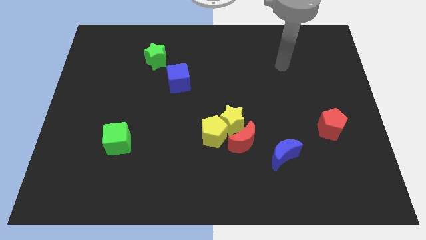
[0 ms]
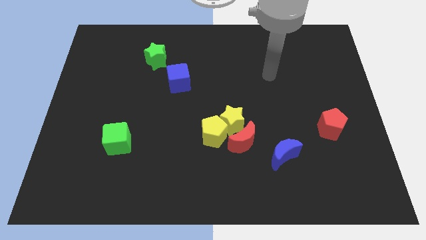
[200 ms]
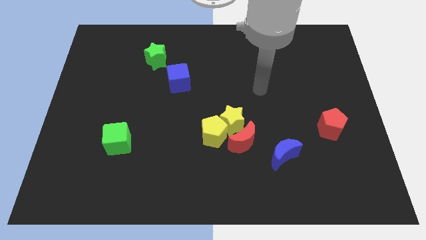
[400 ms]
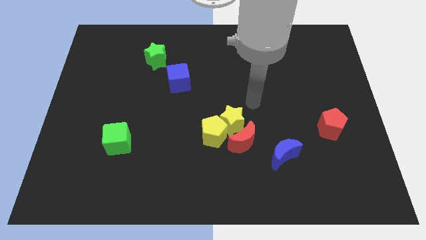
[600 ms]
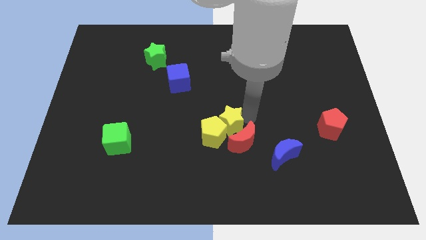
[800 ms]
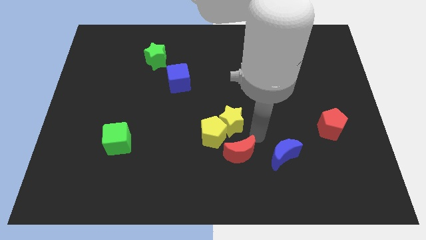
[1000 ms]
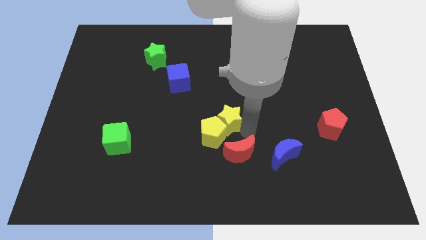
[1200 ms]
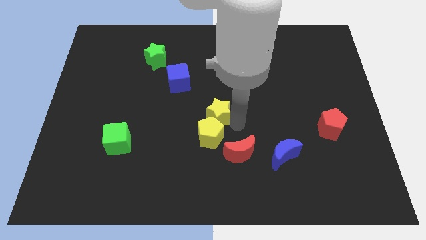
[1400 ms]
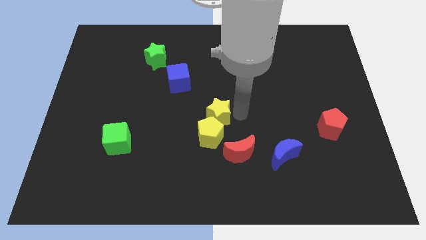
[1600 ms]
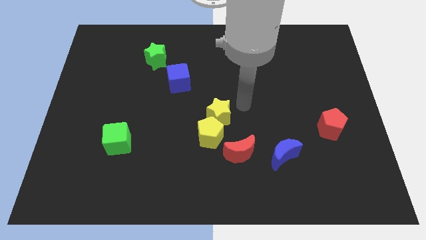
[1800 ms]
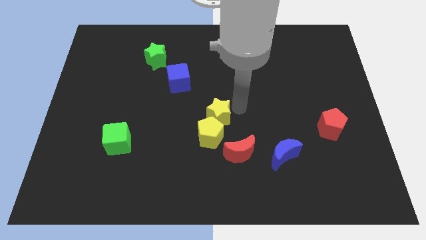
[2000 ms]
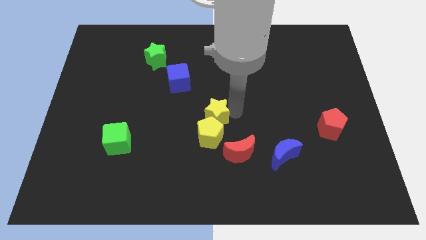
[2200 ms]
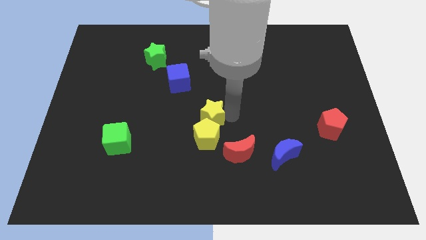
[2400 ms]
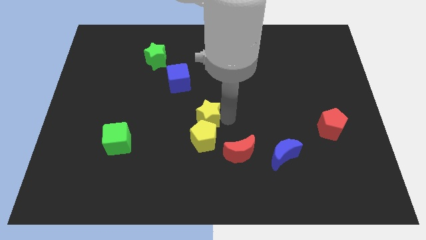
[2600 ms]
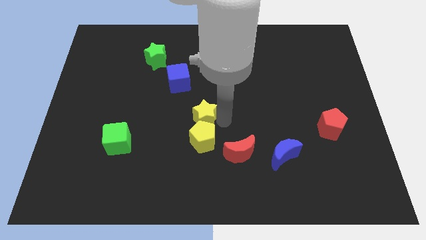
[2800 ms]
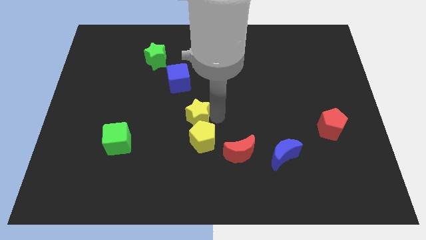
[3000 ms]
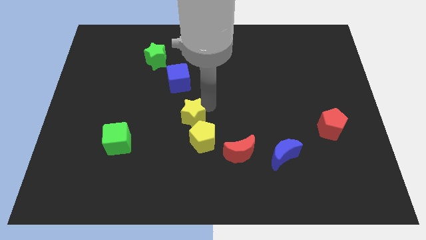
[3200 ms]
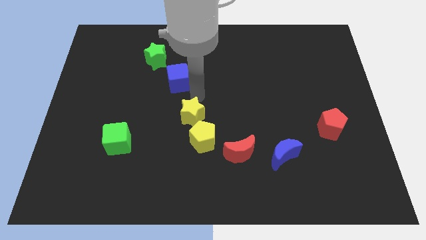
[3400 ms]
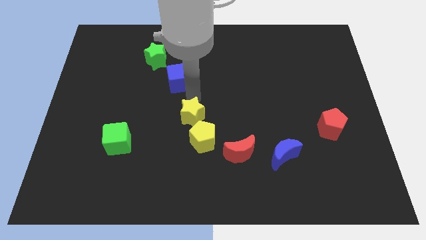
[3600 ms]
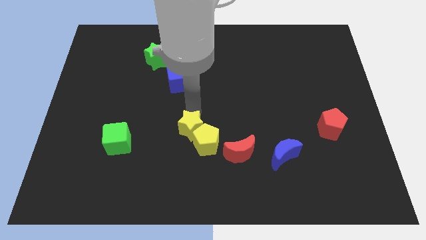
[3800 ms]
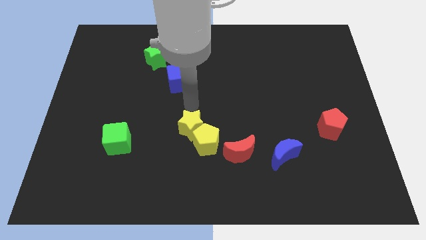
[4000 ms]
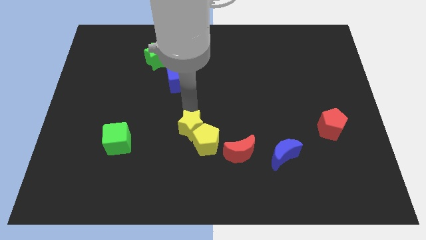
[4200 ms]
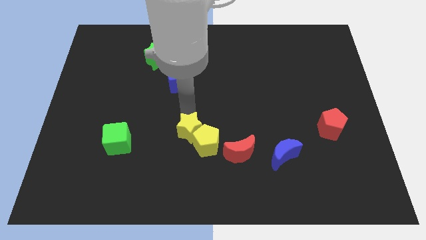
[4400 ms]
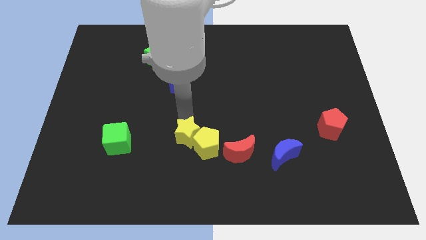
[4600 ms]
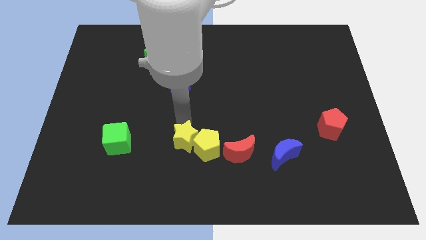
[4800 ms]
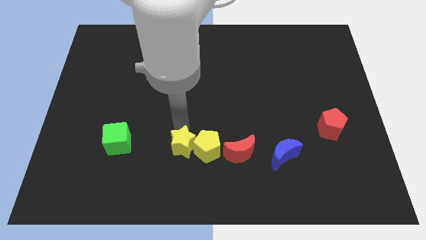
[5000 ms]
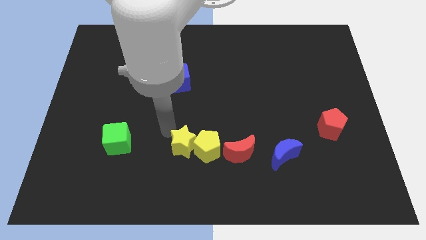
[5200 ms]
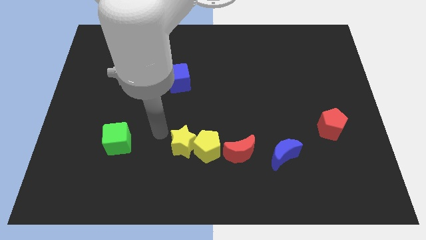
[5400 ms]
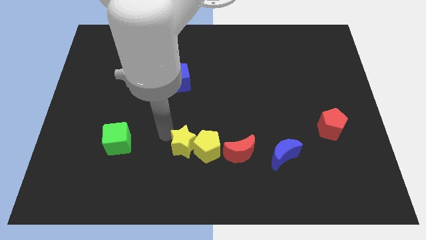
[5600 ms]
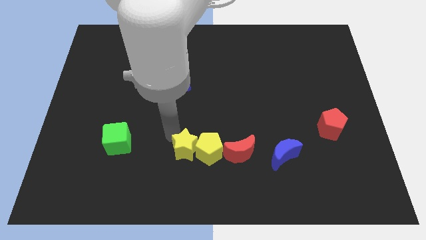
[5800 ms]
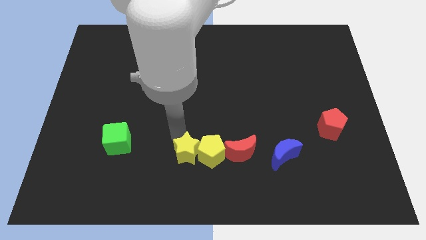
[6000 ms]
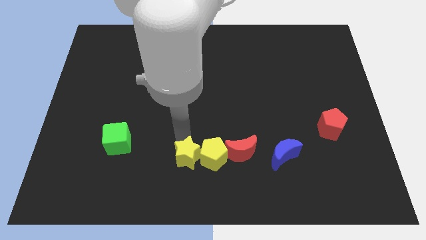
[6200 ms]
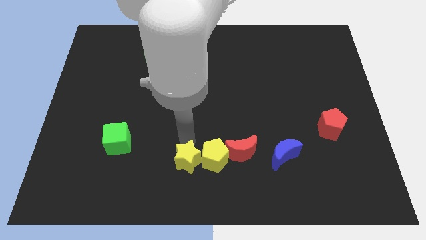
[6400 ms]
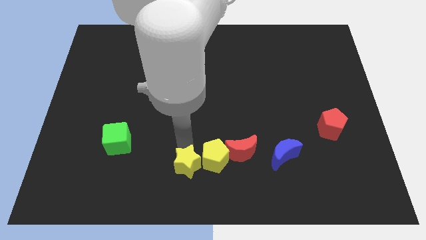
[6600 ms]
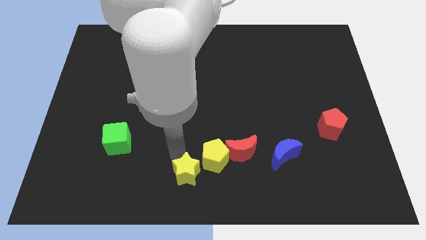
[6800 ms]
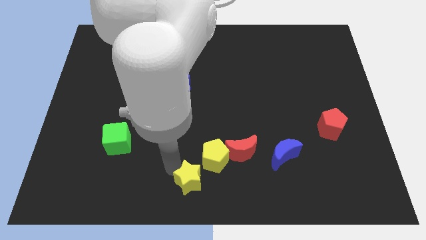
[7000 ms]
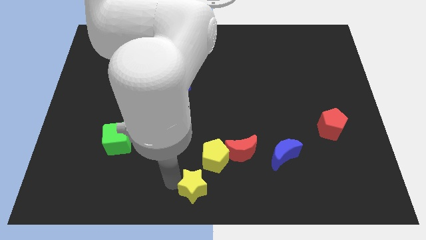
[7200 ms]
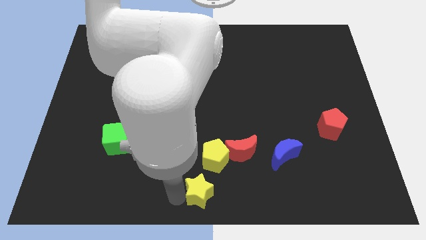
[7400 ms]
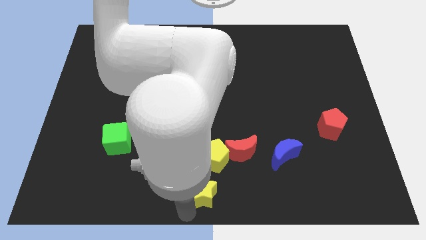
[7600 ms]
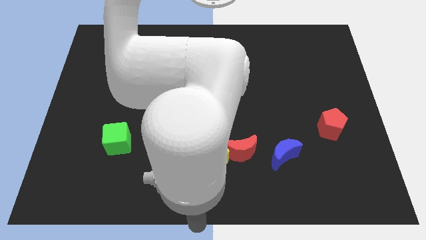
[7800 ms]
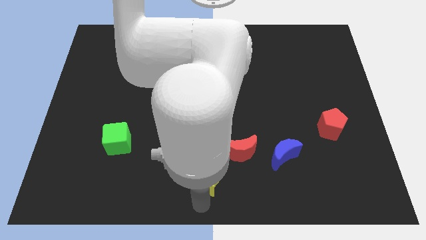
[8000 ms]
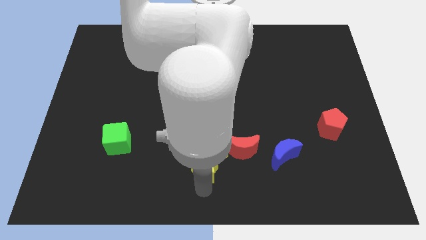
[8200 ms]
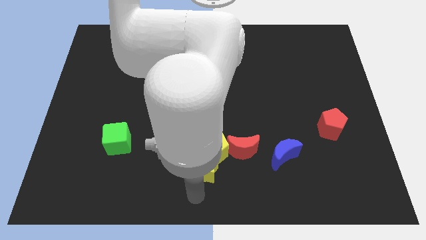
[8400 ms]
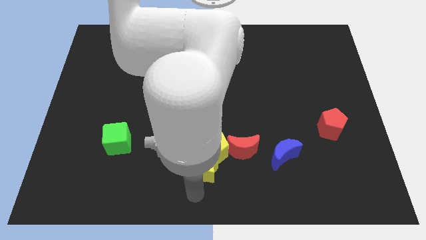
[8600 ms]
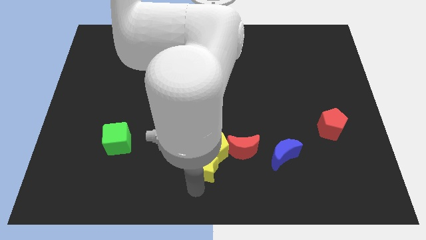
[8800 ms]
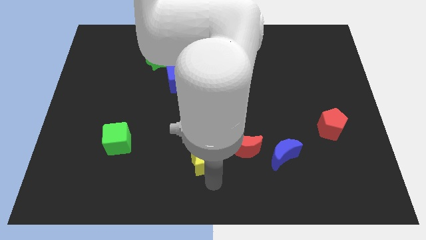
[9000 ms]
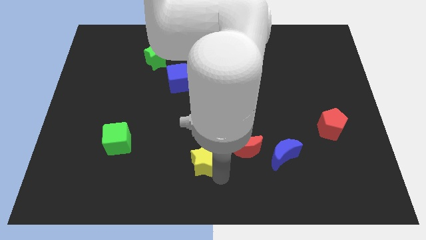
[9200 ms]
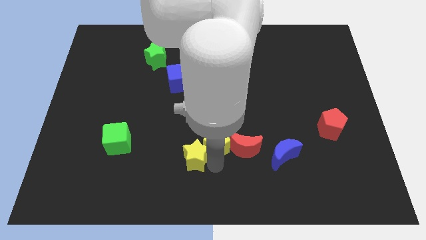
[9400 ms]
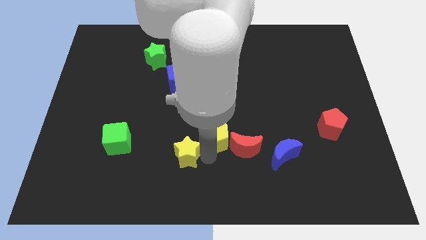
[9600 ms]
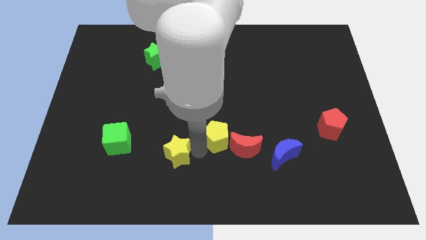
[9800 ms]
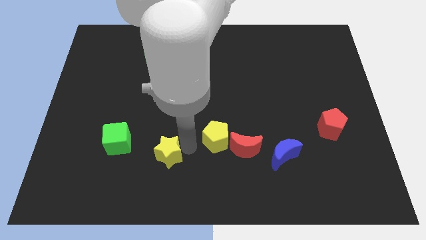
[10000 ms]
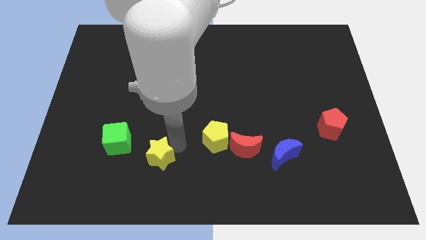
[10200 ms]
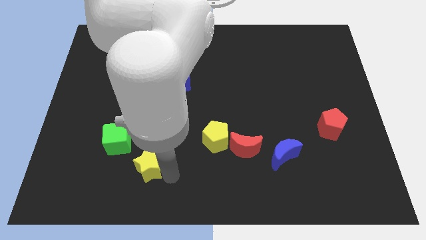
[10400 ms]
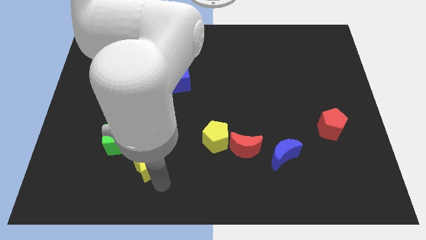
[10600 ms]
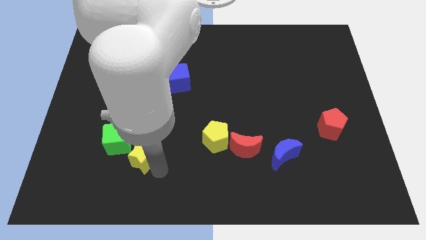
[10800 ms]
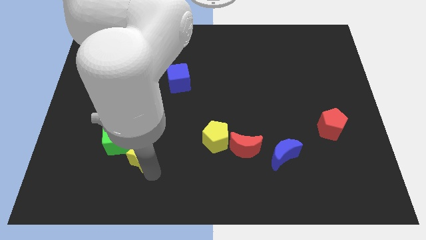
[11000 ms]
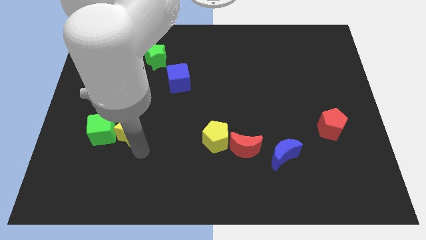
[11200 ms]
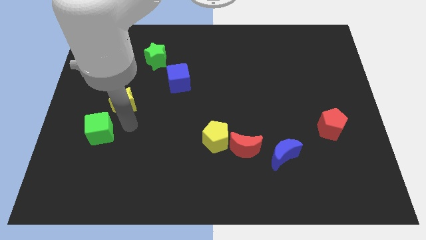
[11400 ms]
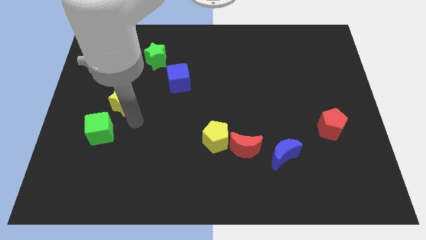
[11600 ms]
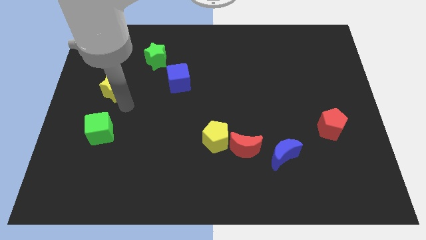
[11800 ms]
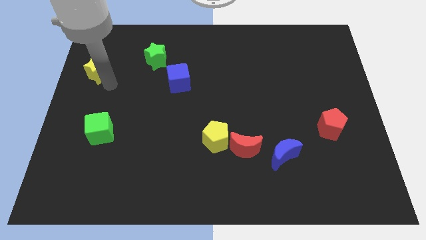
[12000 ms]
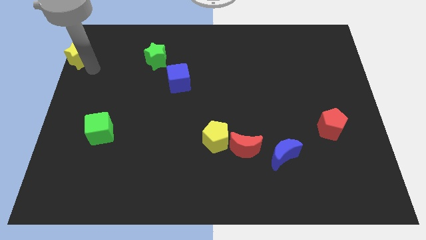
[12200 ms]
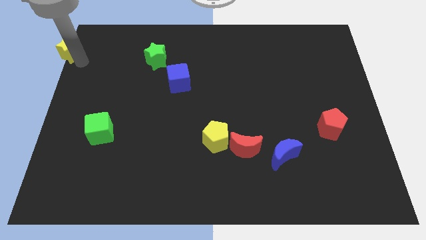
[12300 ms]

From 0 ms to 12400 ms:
slide the yellow star to the upper left corner
